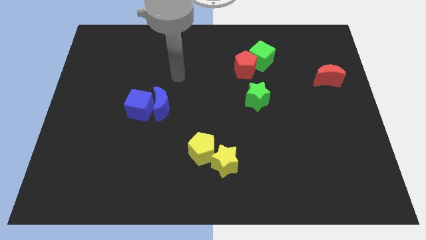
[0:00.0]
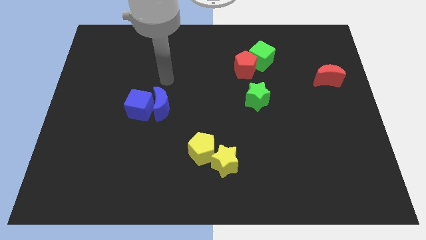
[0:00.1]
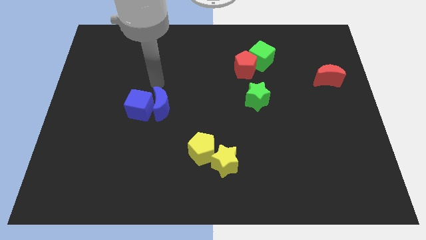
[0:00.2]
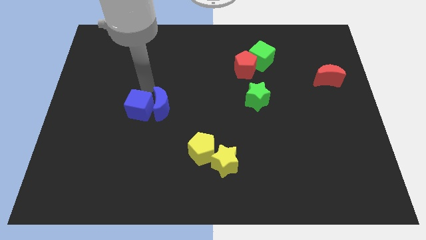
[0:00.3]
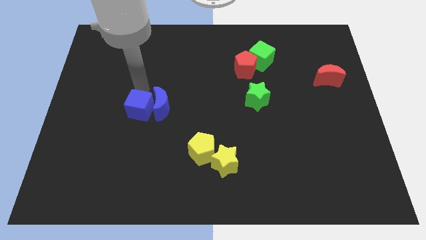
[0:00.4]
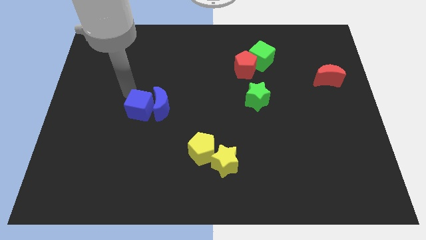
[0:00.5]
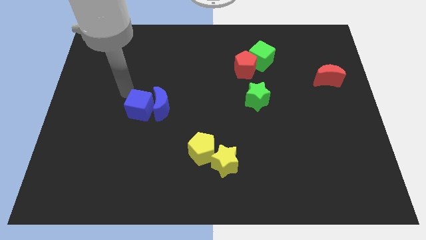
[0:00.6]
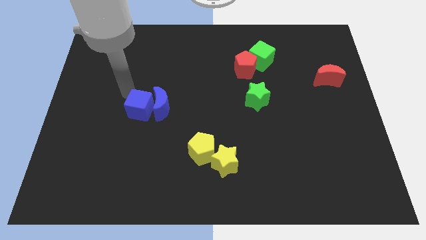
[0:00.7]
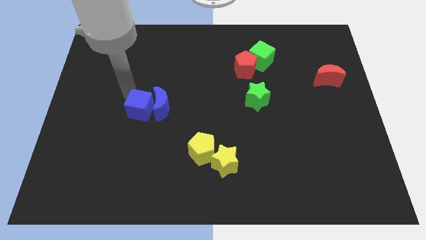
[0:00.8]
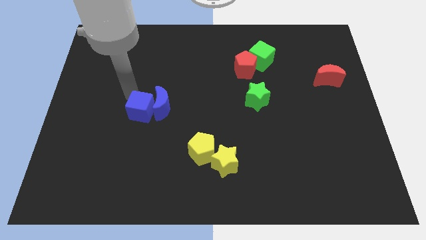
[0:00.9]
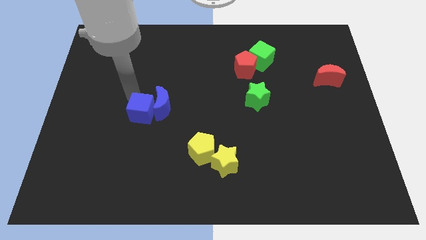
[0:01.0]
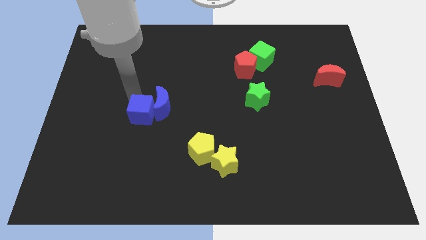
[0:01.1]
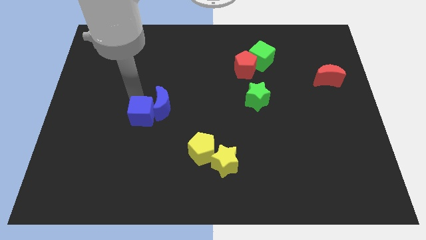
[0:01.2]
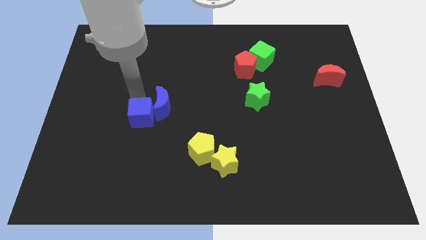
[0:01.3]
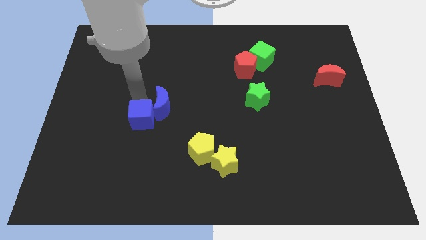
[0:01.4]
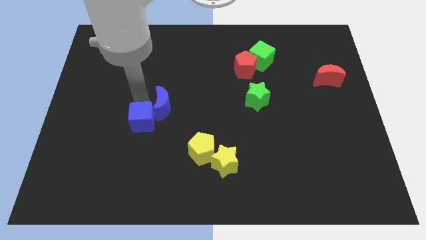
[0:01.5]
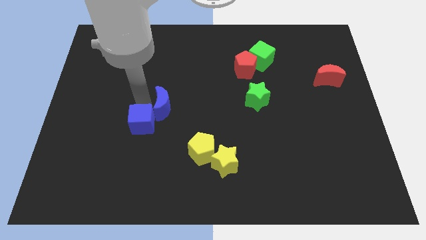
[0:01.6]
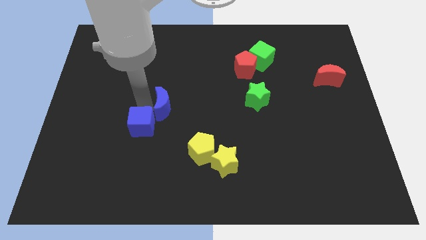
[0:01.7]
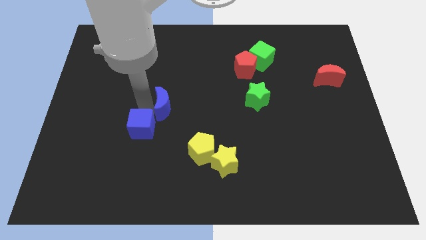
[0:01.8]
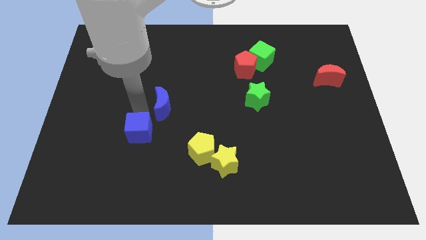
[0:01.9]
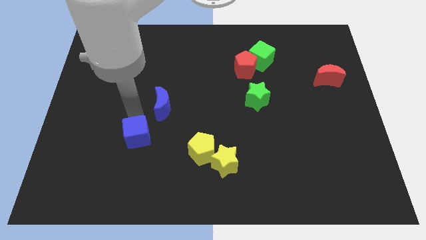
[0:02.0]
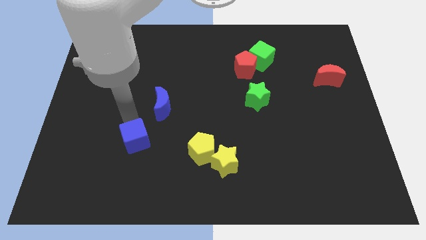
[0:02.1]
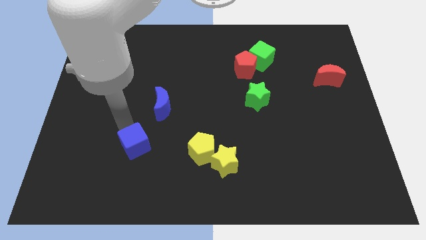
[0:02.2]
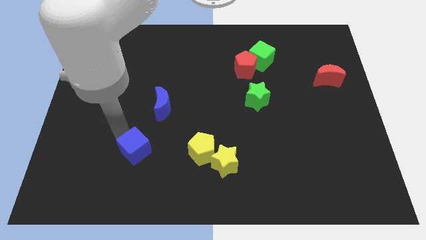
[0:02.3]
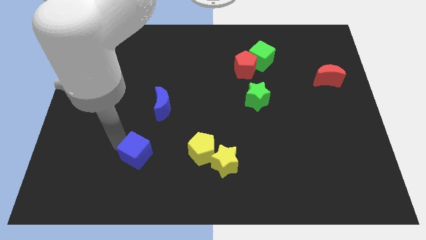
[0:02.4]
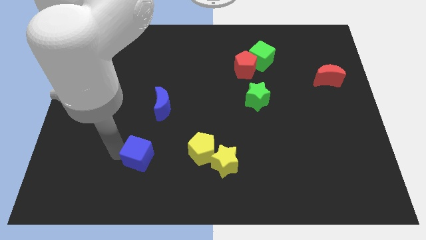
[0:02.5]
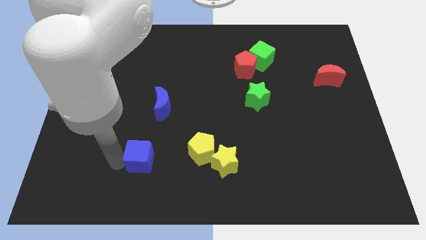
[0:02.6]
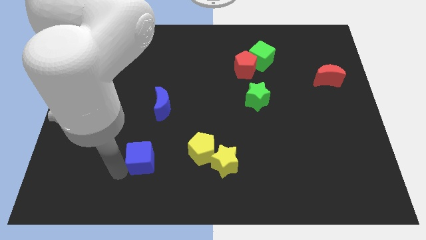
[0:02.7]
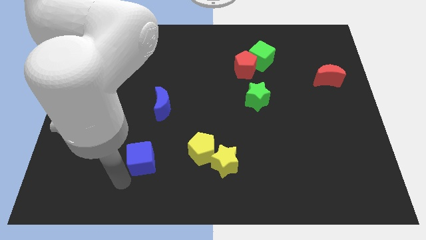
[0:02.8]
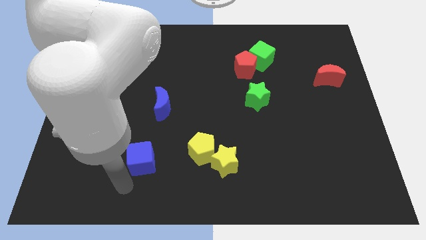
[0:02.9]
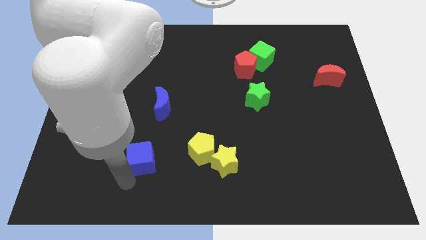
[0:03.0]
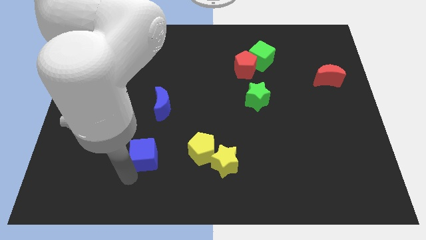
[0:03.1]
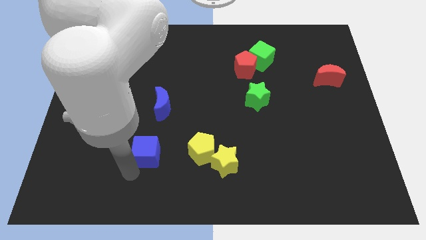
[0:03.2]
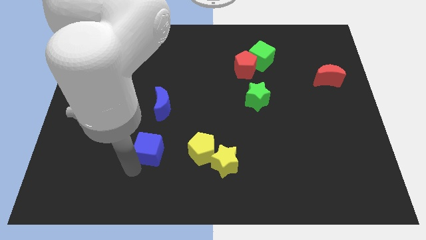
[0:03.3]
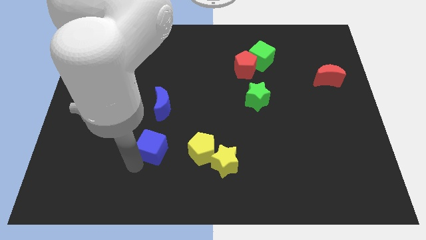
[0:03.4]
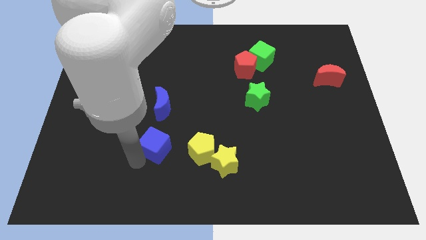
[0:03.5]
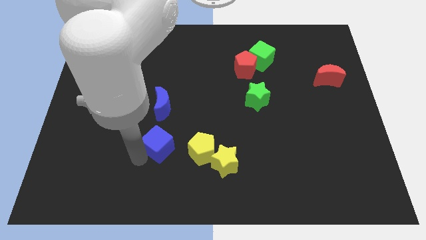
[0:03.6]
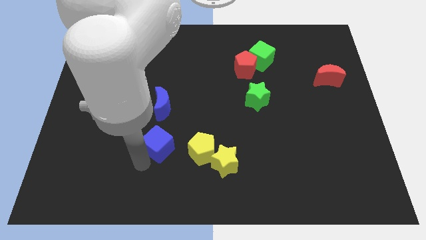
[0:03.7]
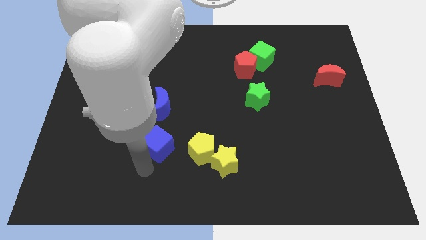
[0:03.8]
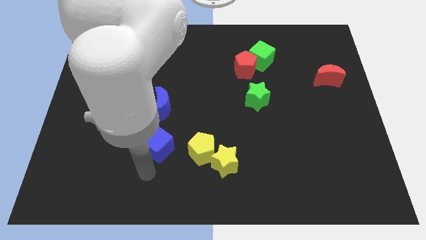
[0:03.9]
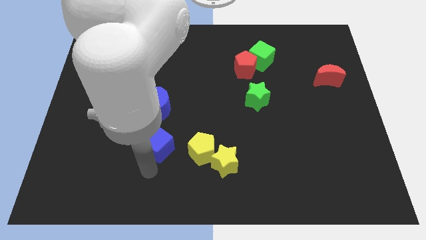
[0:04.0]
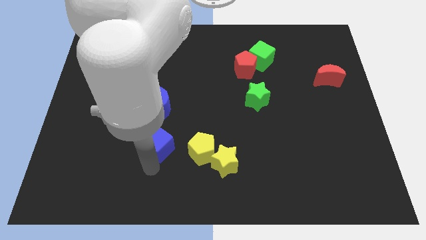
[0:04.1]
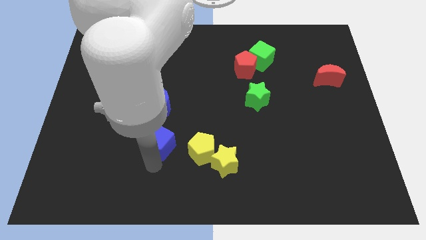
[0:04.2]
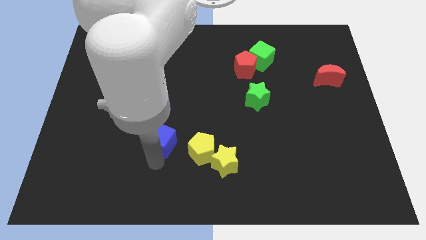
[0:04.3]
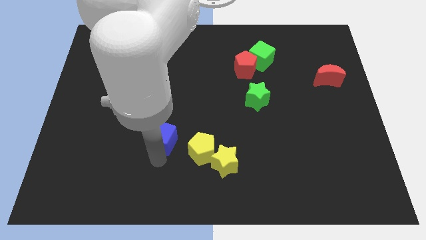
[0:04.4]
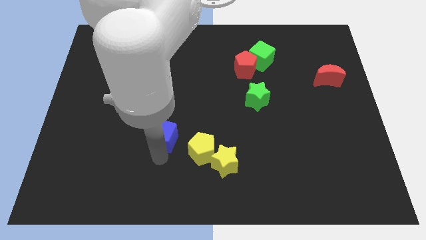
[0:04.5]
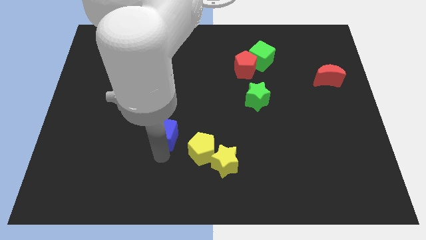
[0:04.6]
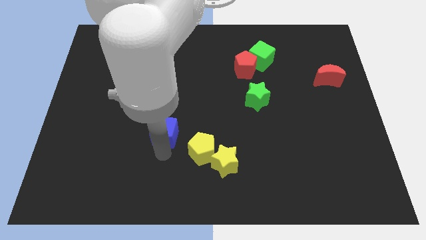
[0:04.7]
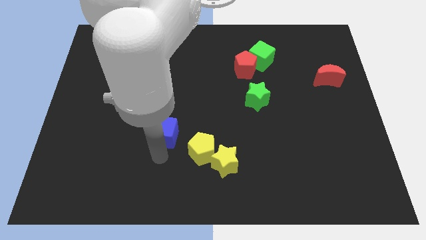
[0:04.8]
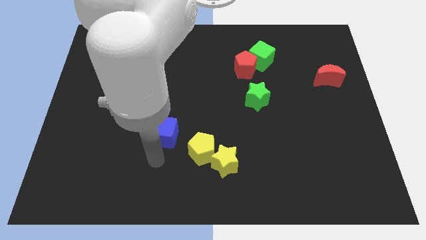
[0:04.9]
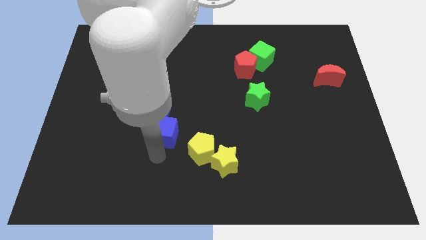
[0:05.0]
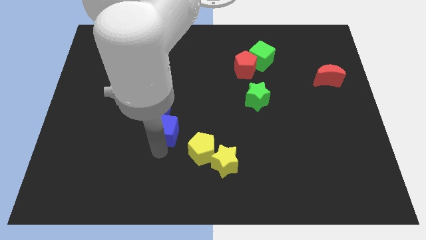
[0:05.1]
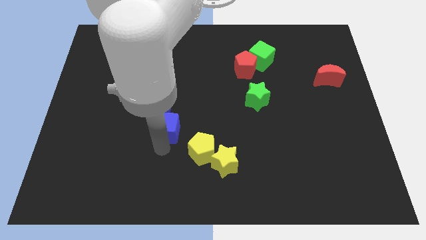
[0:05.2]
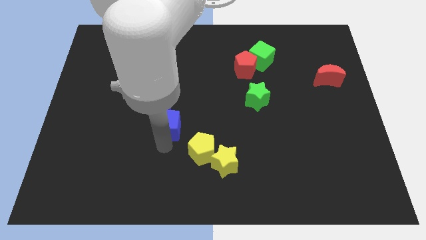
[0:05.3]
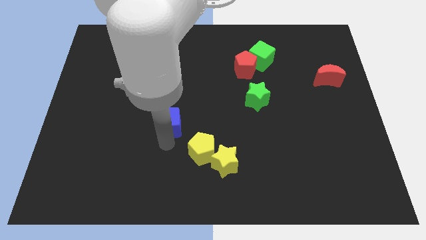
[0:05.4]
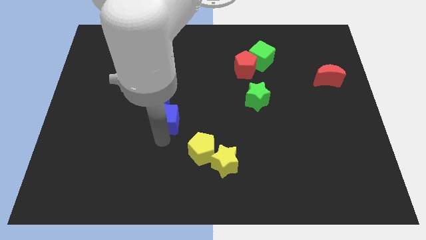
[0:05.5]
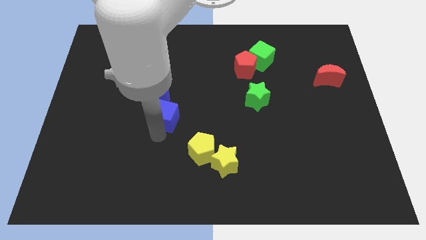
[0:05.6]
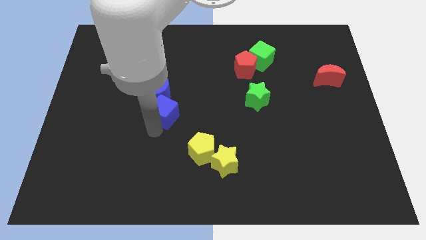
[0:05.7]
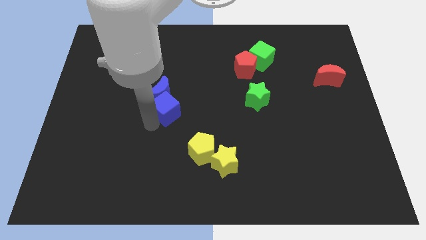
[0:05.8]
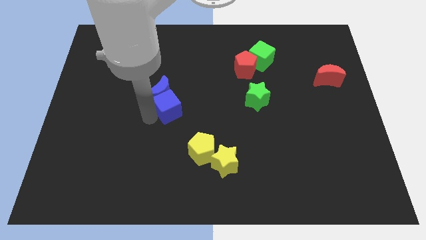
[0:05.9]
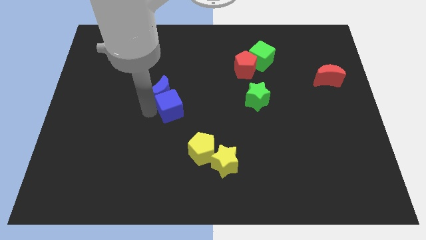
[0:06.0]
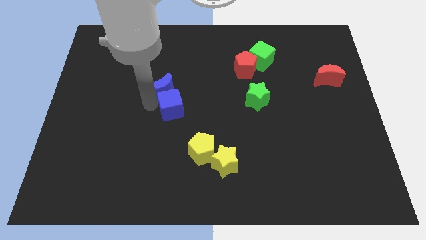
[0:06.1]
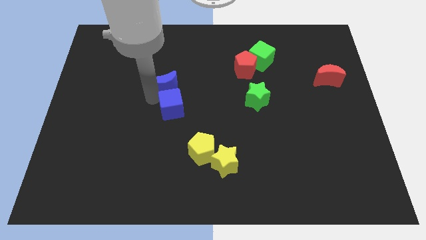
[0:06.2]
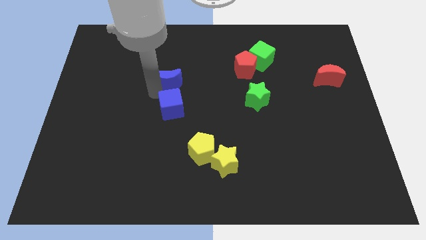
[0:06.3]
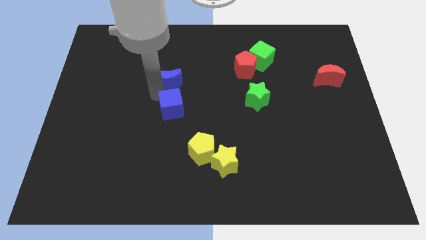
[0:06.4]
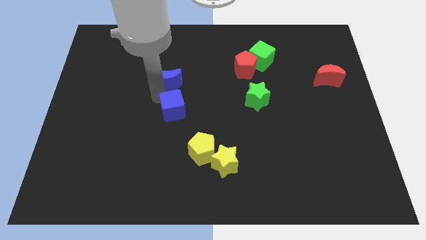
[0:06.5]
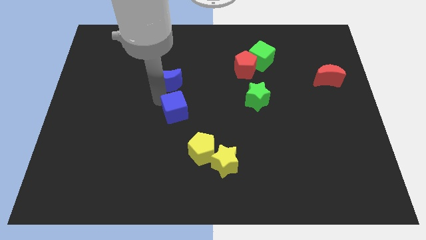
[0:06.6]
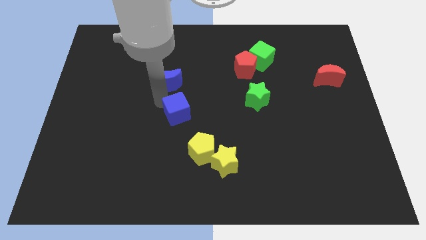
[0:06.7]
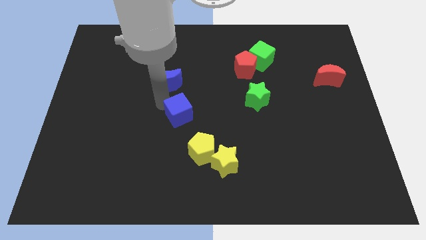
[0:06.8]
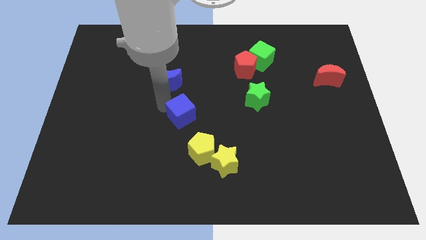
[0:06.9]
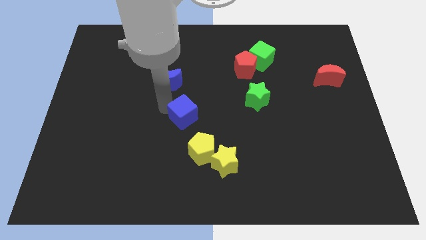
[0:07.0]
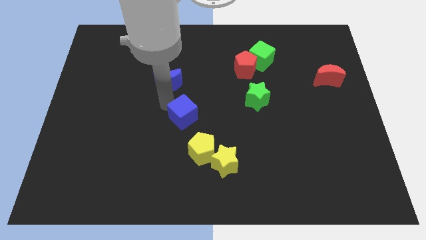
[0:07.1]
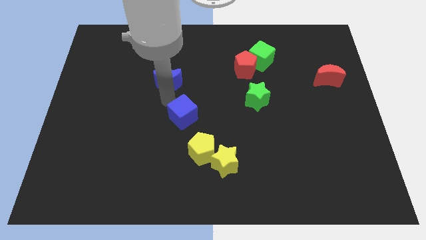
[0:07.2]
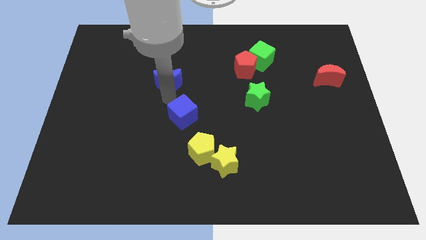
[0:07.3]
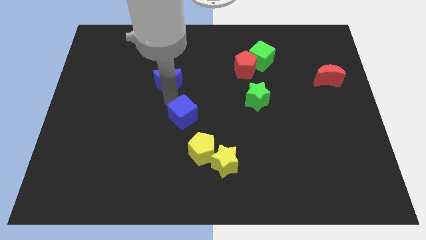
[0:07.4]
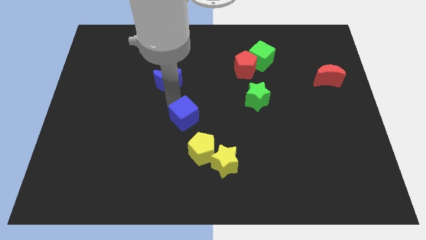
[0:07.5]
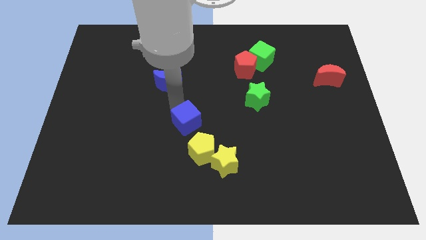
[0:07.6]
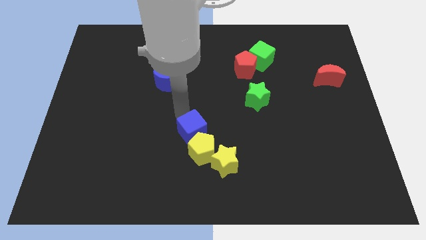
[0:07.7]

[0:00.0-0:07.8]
move the blue cube next to the yellow pentagon

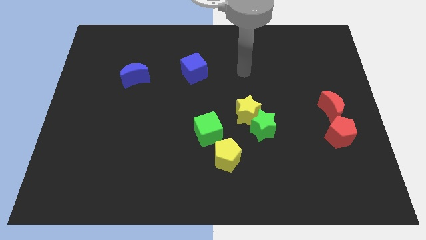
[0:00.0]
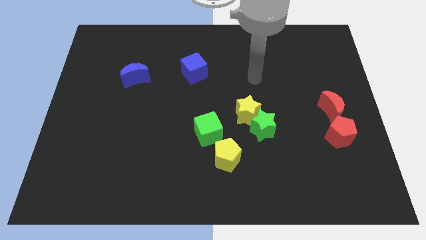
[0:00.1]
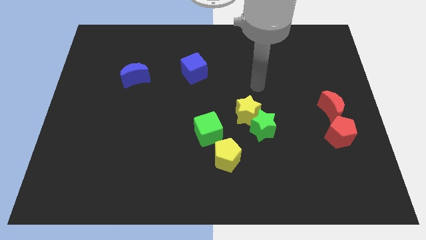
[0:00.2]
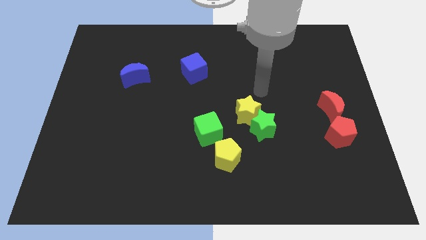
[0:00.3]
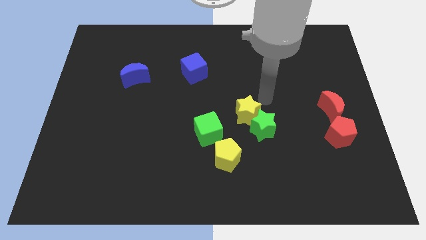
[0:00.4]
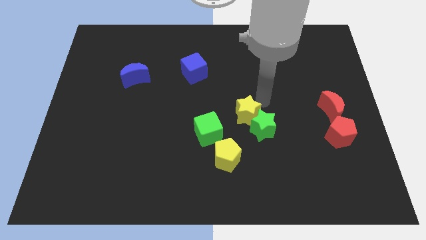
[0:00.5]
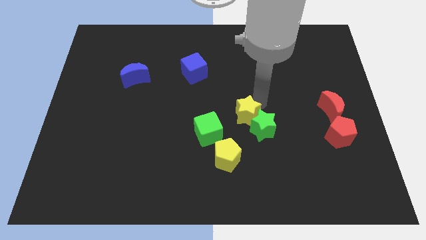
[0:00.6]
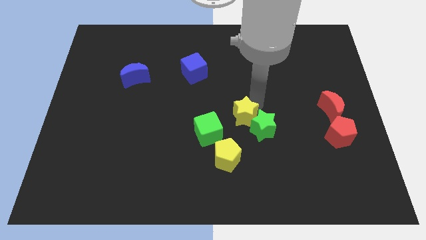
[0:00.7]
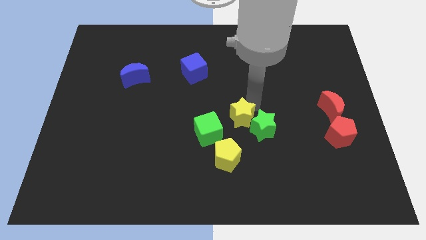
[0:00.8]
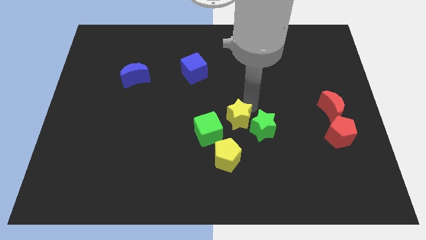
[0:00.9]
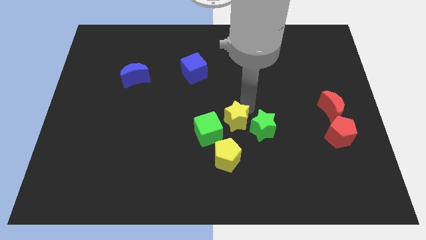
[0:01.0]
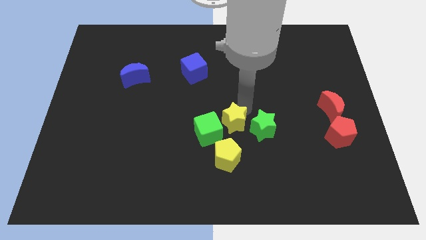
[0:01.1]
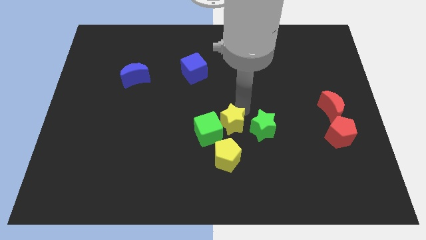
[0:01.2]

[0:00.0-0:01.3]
move the yellow star towards the green cube
